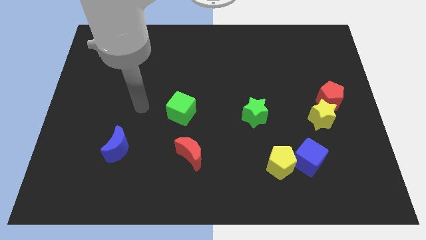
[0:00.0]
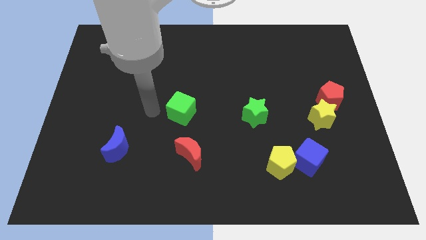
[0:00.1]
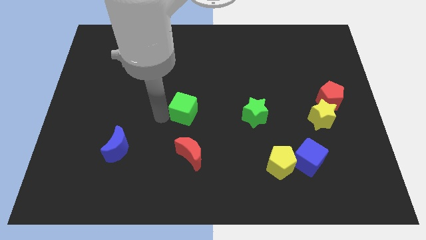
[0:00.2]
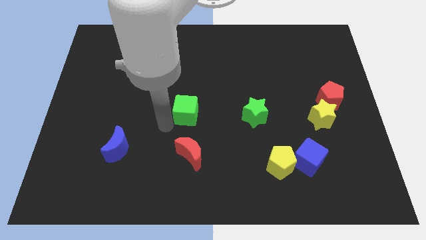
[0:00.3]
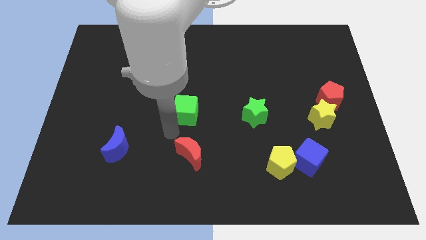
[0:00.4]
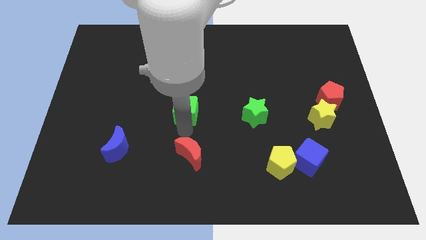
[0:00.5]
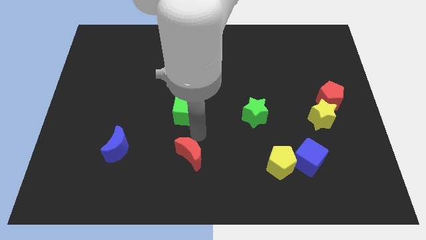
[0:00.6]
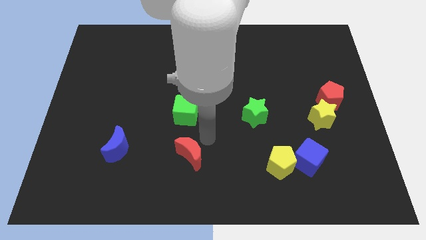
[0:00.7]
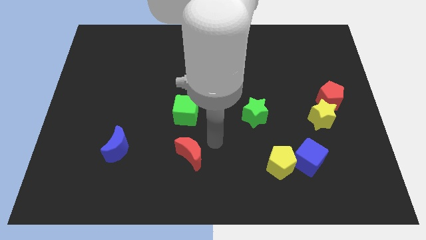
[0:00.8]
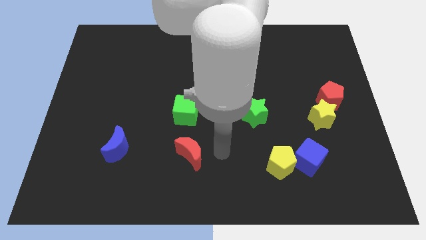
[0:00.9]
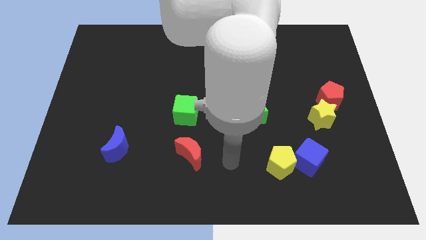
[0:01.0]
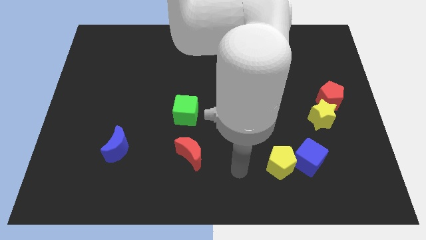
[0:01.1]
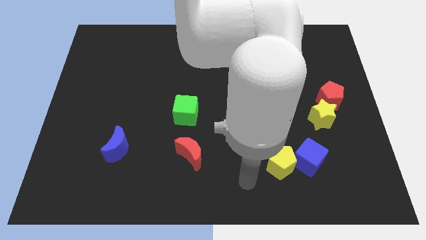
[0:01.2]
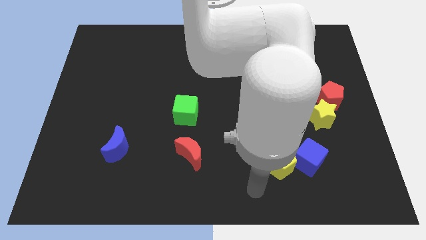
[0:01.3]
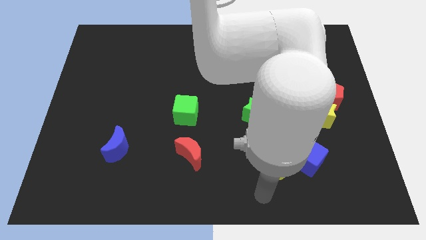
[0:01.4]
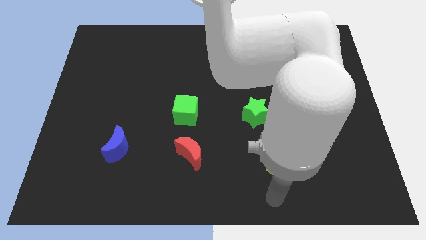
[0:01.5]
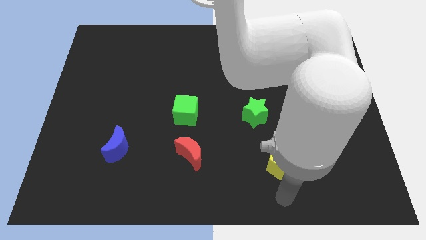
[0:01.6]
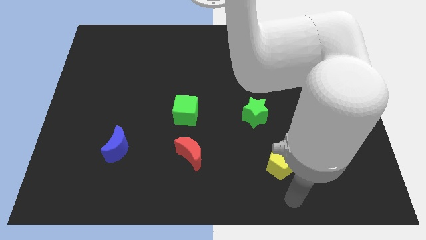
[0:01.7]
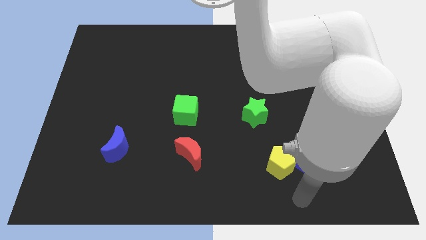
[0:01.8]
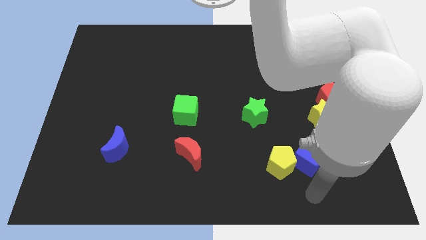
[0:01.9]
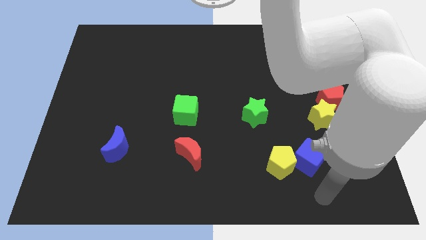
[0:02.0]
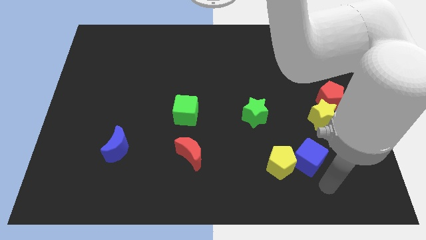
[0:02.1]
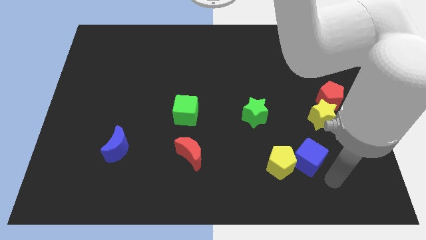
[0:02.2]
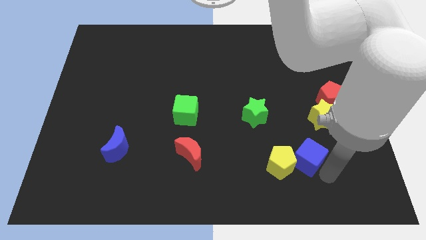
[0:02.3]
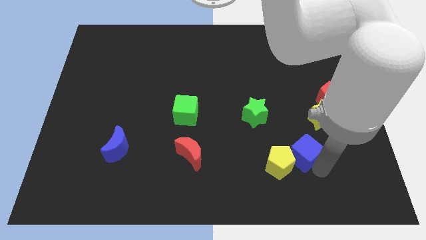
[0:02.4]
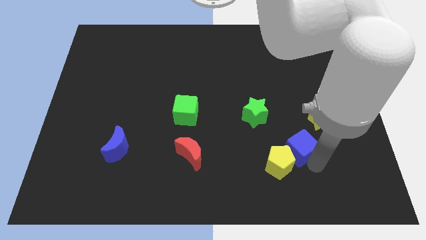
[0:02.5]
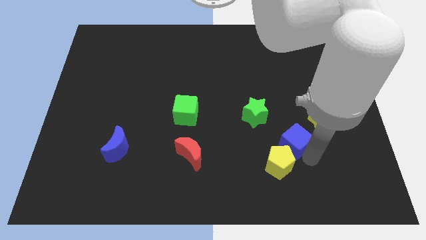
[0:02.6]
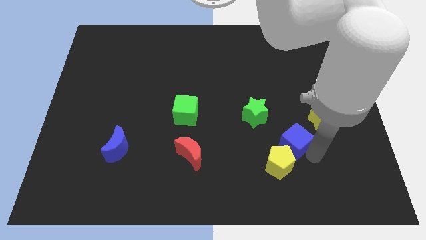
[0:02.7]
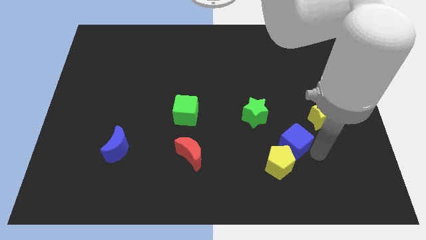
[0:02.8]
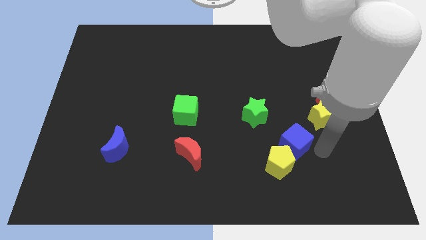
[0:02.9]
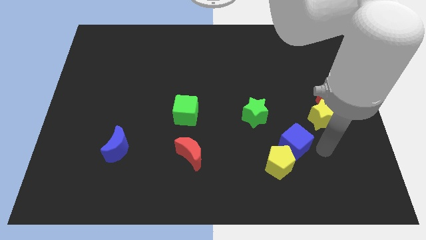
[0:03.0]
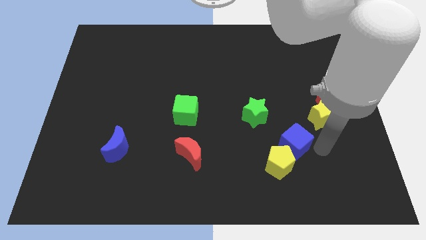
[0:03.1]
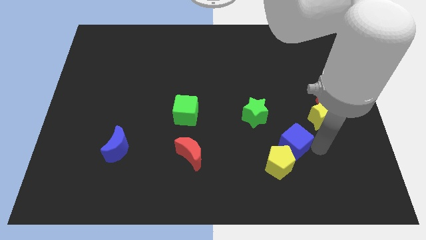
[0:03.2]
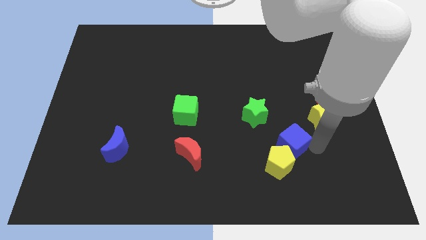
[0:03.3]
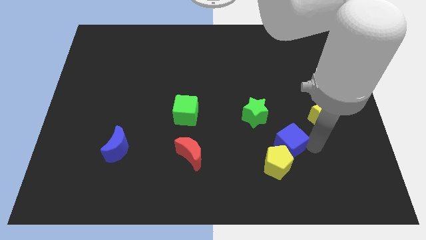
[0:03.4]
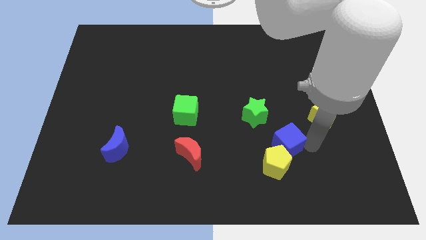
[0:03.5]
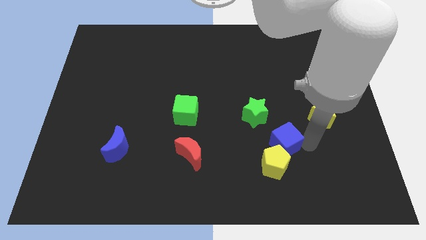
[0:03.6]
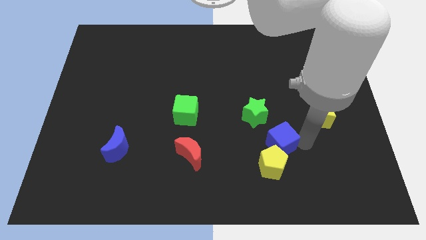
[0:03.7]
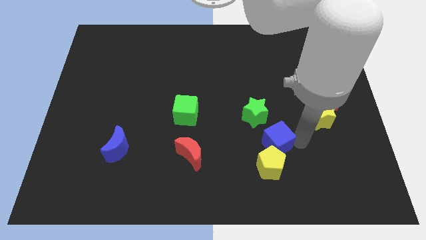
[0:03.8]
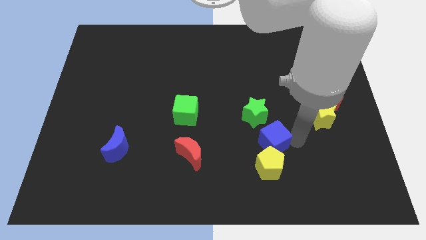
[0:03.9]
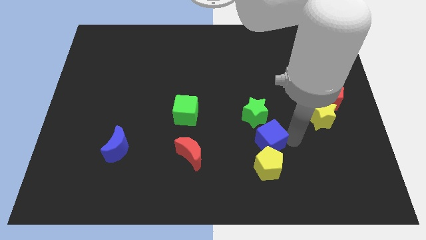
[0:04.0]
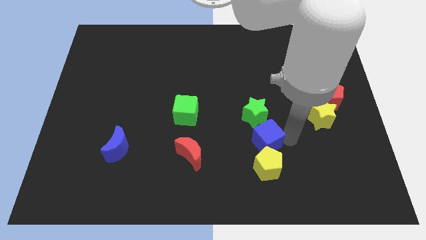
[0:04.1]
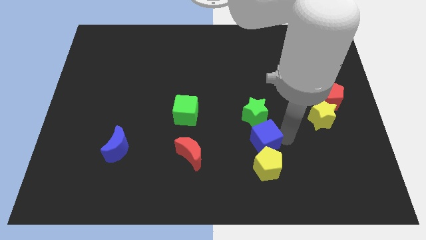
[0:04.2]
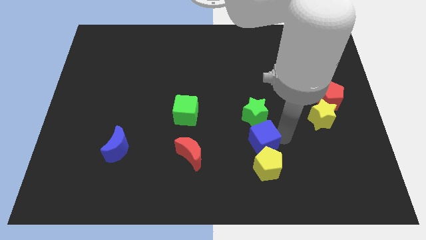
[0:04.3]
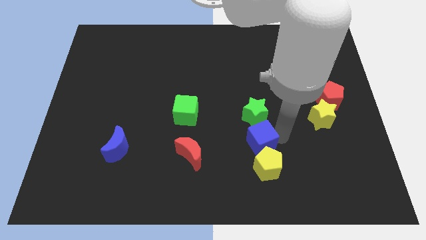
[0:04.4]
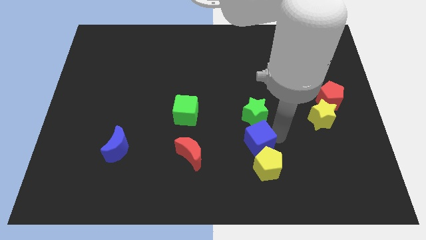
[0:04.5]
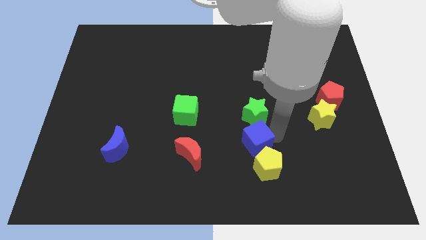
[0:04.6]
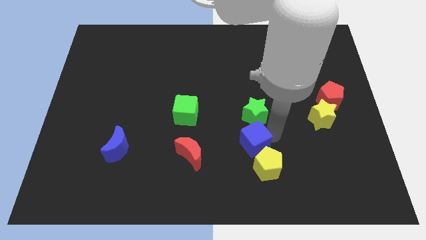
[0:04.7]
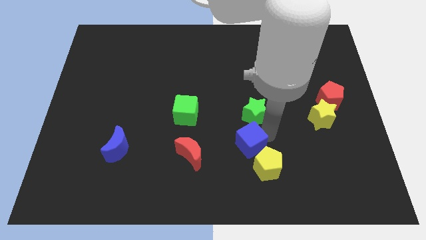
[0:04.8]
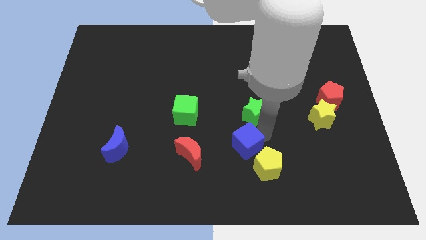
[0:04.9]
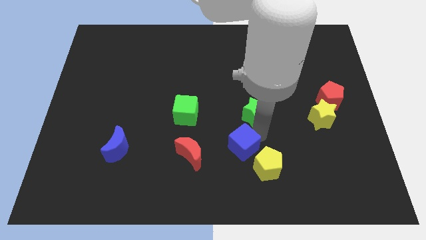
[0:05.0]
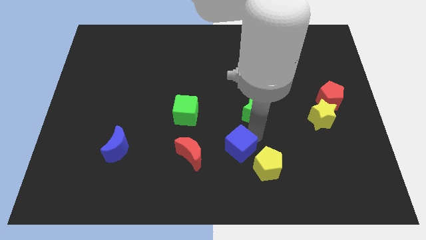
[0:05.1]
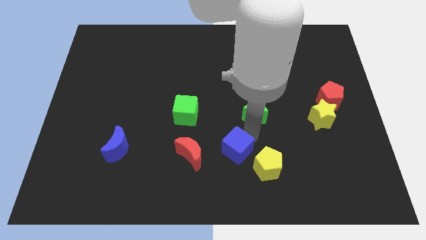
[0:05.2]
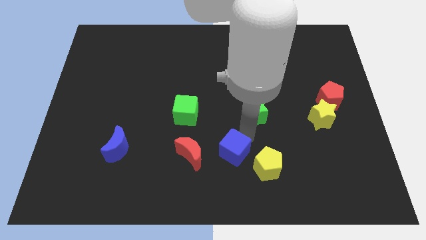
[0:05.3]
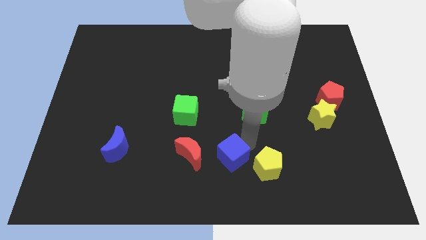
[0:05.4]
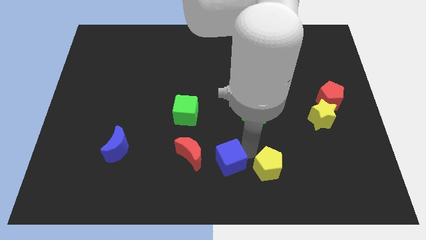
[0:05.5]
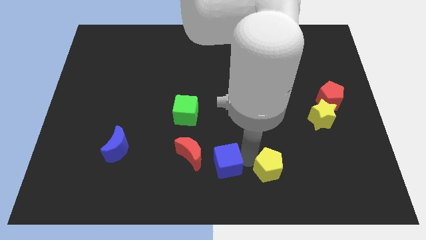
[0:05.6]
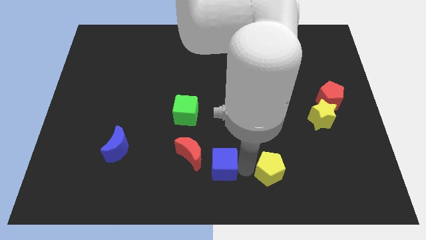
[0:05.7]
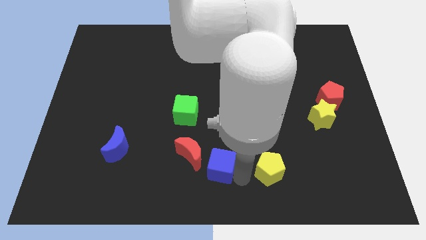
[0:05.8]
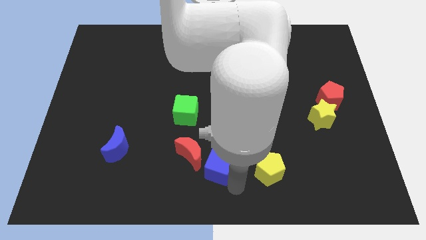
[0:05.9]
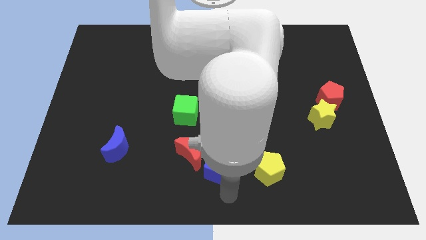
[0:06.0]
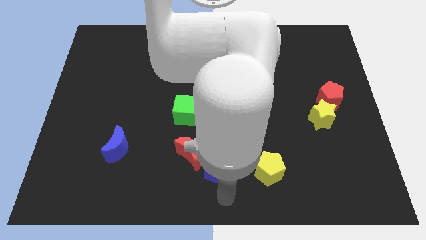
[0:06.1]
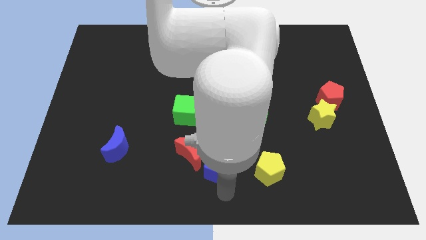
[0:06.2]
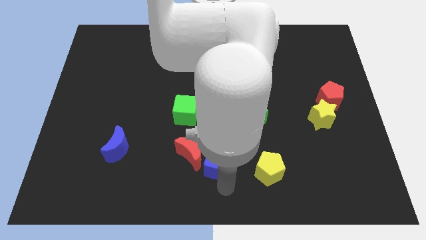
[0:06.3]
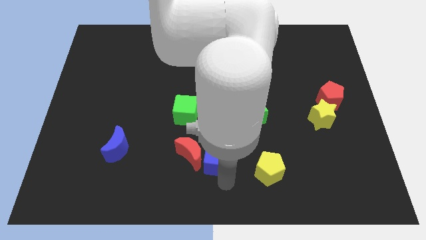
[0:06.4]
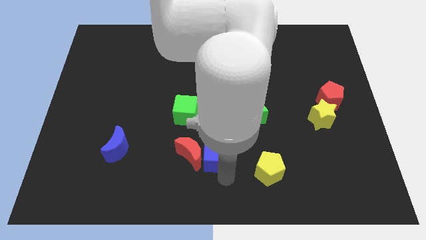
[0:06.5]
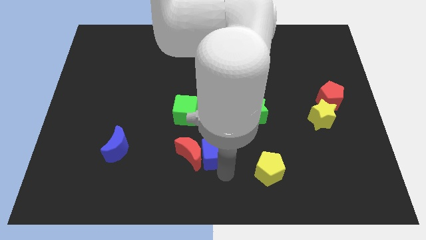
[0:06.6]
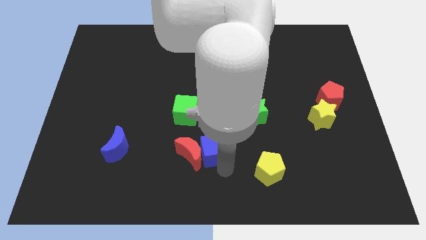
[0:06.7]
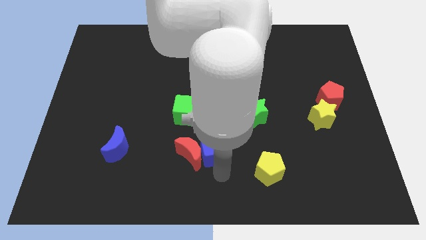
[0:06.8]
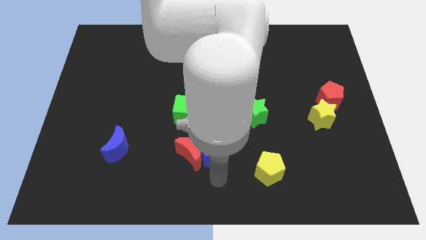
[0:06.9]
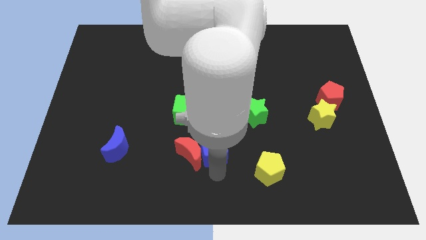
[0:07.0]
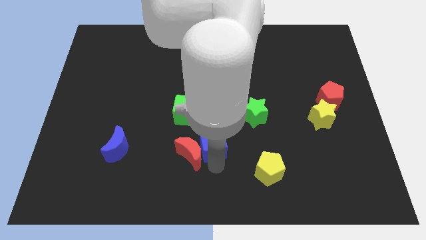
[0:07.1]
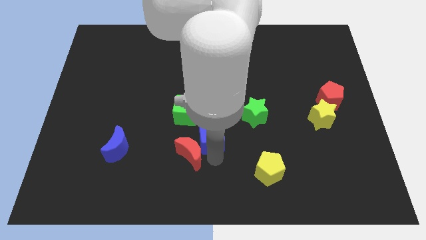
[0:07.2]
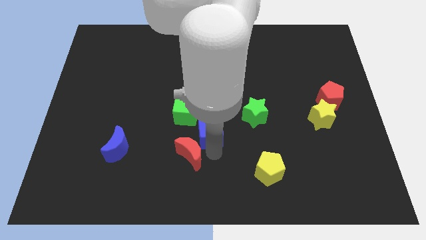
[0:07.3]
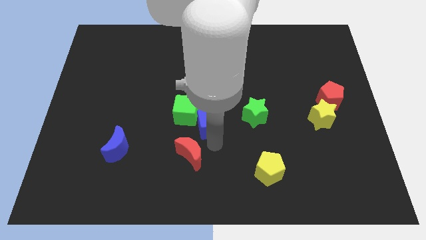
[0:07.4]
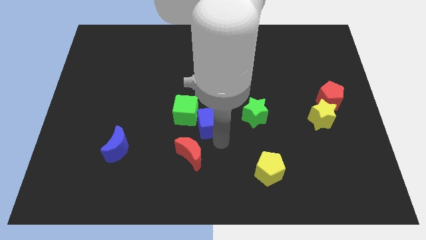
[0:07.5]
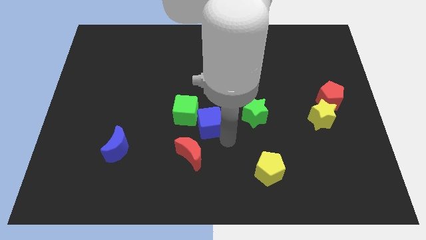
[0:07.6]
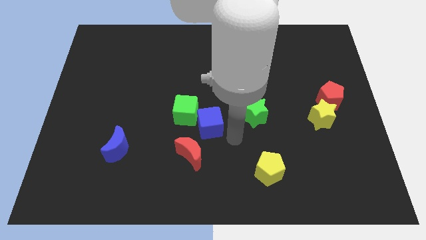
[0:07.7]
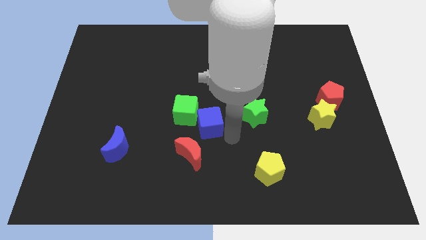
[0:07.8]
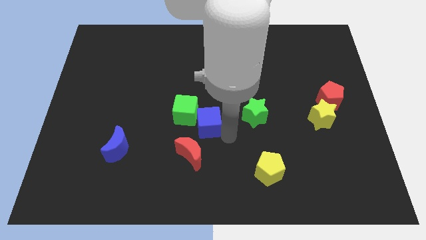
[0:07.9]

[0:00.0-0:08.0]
put the blue cube close to the green cube
